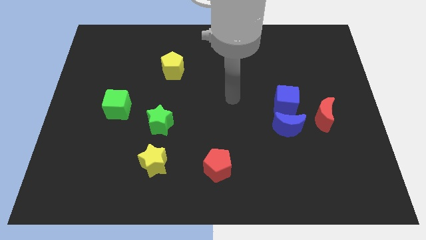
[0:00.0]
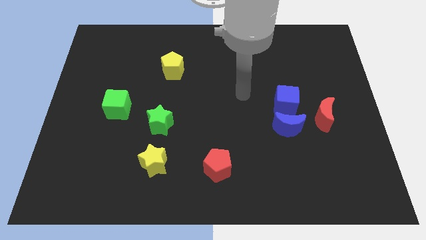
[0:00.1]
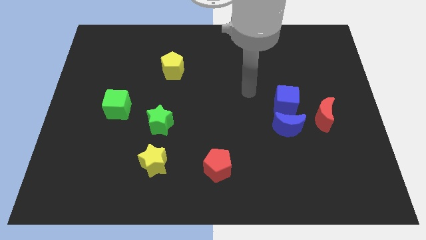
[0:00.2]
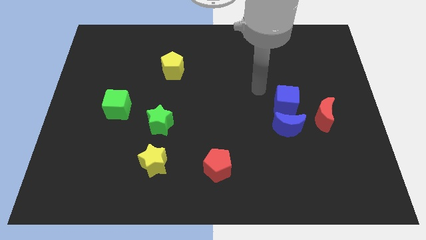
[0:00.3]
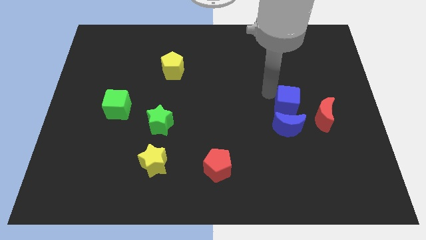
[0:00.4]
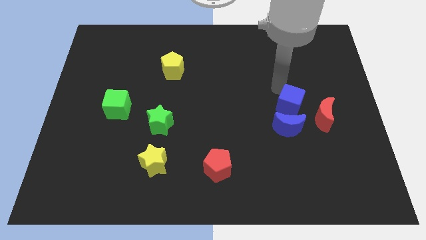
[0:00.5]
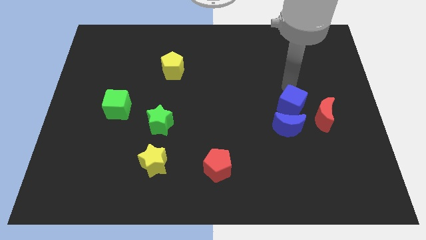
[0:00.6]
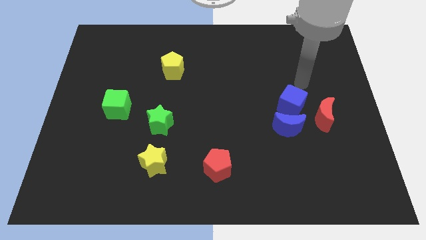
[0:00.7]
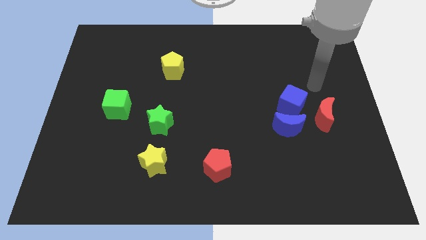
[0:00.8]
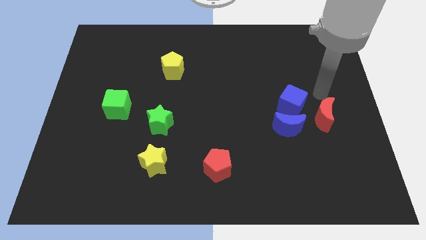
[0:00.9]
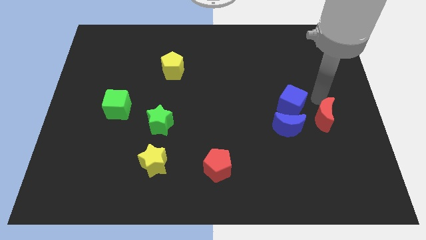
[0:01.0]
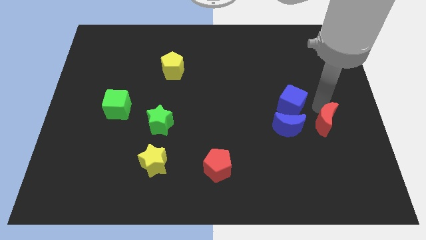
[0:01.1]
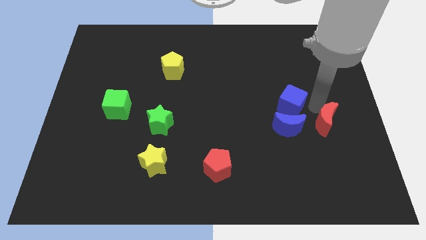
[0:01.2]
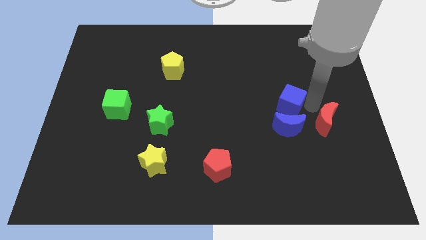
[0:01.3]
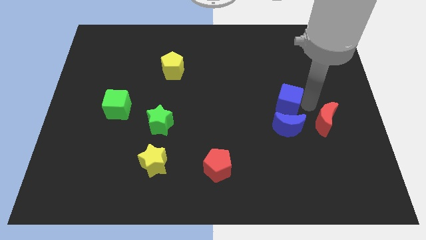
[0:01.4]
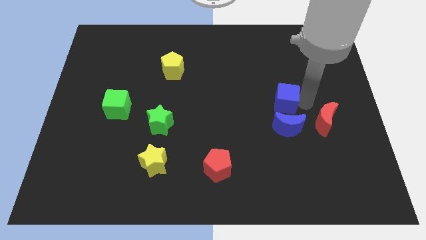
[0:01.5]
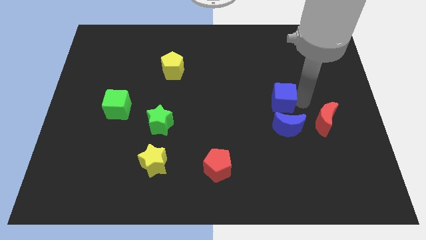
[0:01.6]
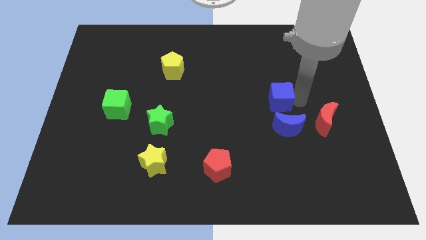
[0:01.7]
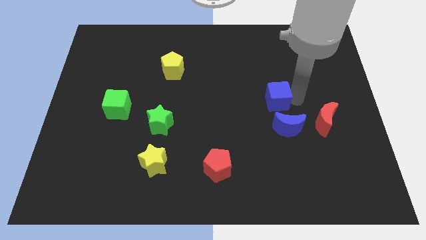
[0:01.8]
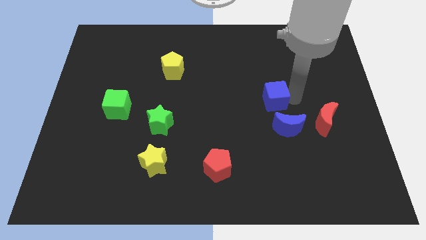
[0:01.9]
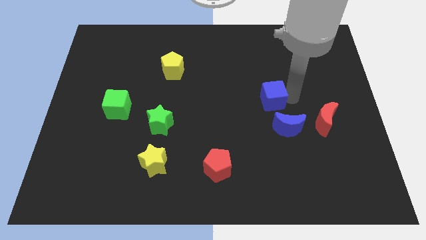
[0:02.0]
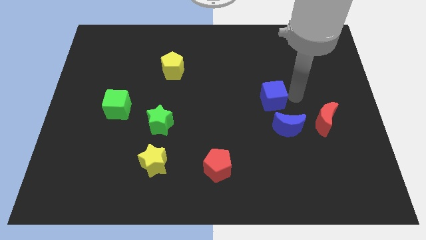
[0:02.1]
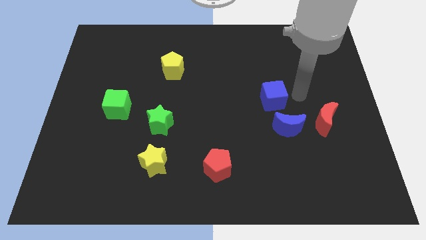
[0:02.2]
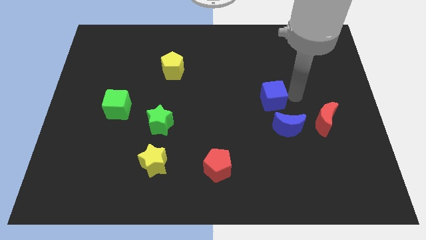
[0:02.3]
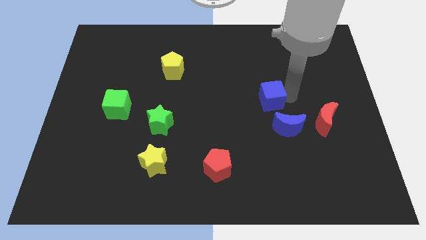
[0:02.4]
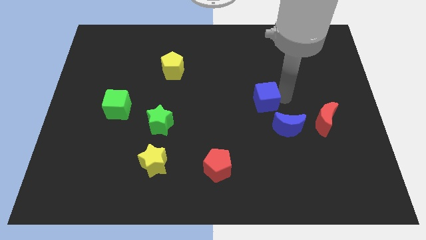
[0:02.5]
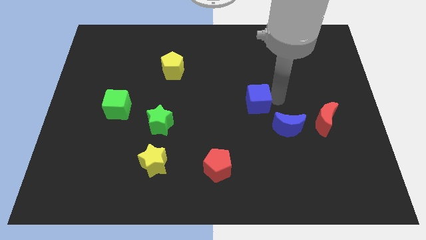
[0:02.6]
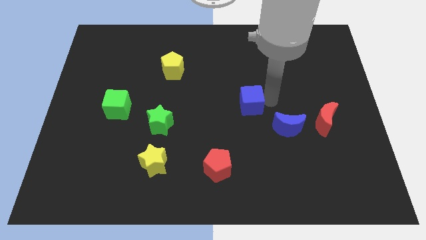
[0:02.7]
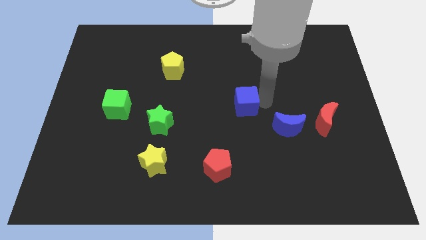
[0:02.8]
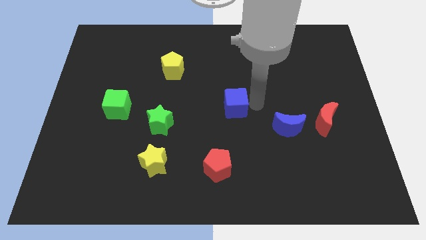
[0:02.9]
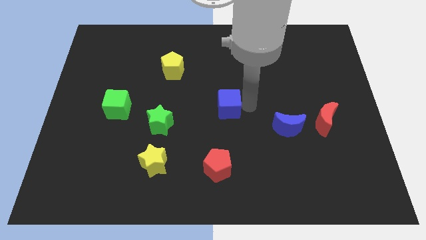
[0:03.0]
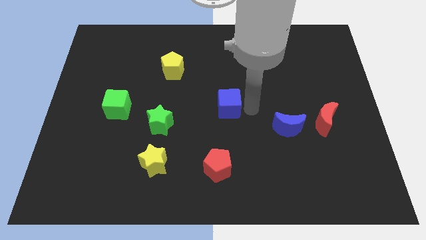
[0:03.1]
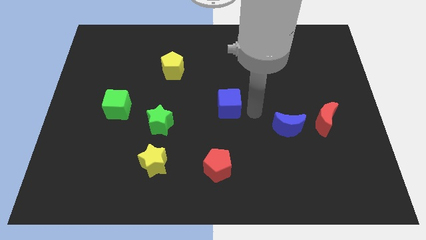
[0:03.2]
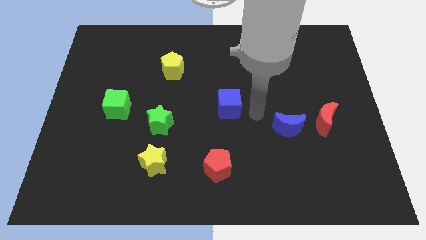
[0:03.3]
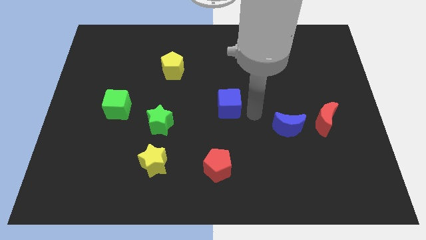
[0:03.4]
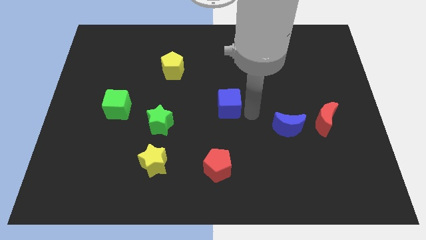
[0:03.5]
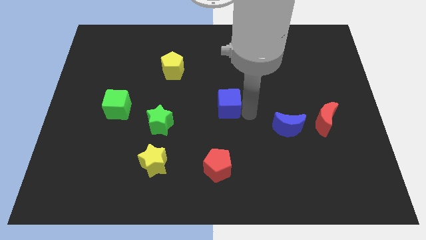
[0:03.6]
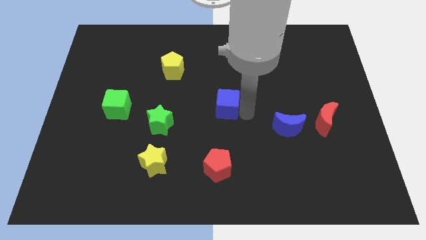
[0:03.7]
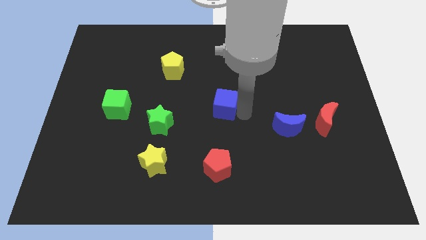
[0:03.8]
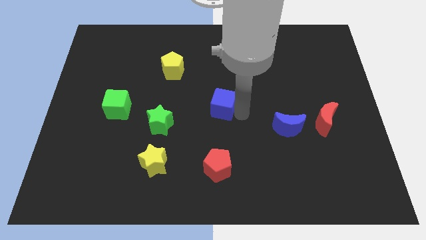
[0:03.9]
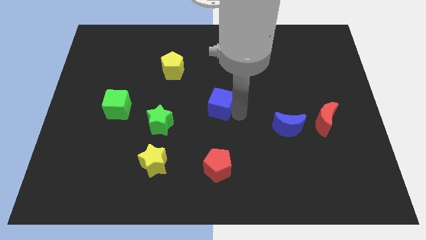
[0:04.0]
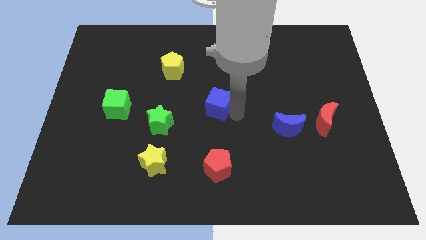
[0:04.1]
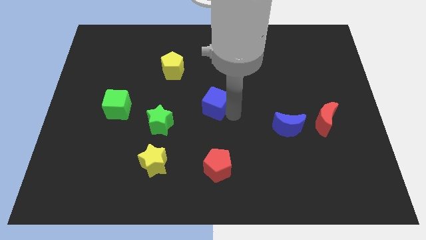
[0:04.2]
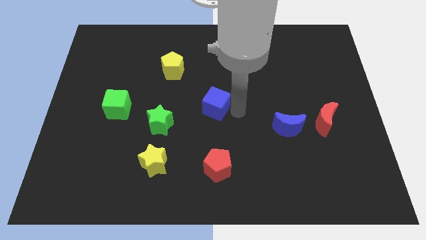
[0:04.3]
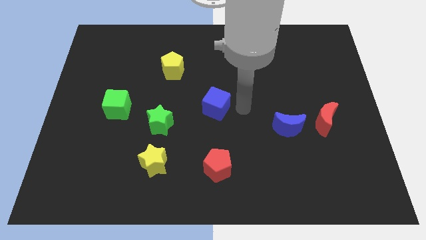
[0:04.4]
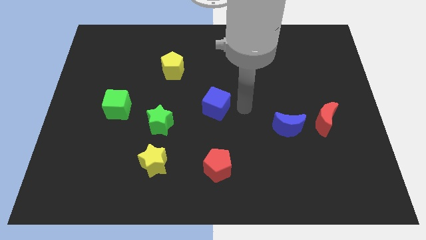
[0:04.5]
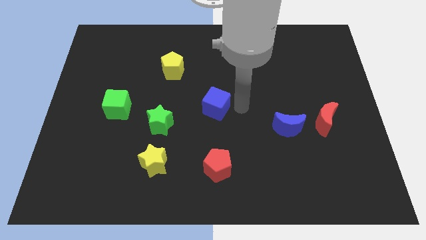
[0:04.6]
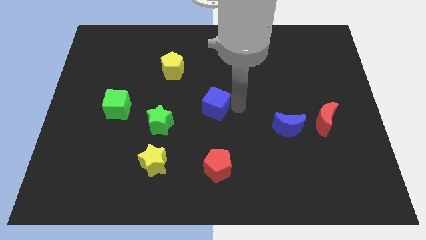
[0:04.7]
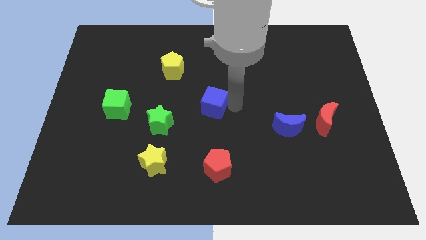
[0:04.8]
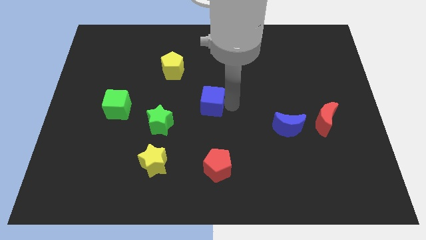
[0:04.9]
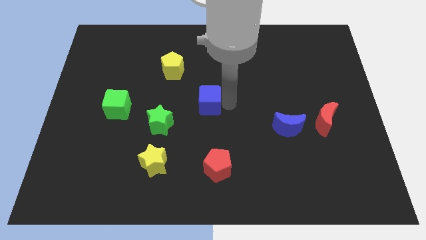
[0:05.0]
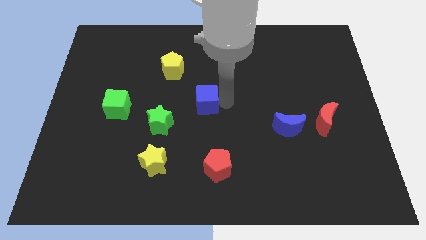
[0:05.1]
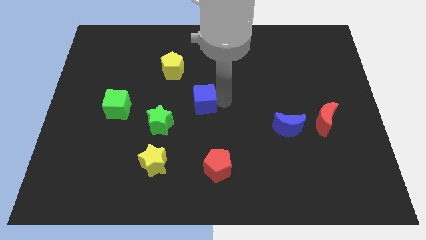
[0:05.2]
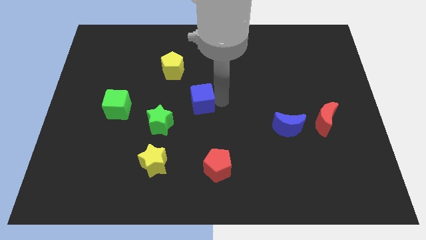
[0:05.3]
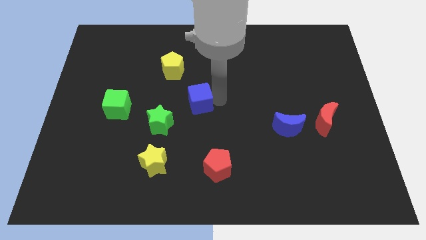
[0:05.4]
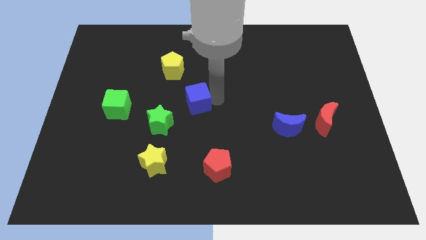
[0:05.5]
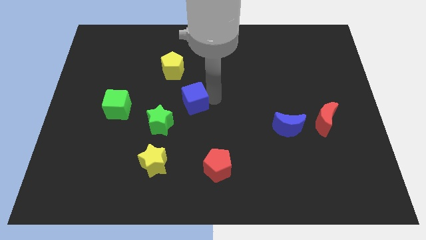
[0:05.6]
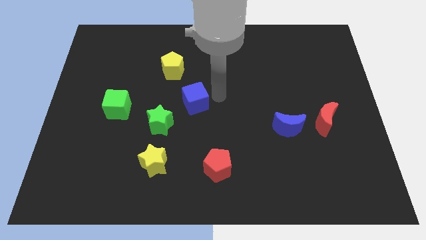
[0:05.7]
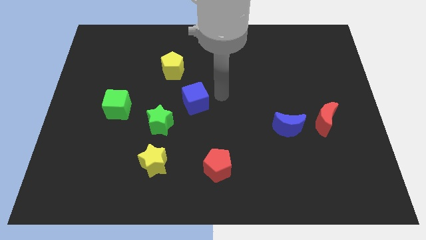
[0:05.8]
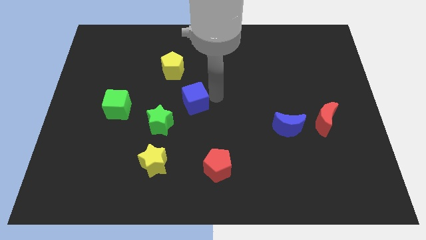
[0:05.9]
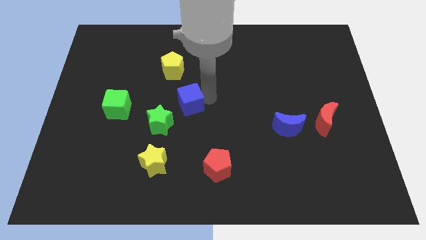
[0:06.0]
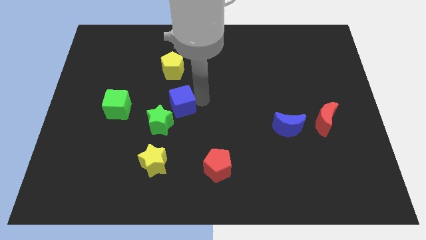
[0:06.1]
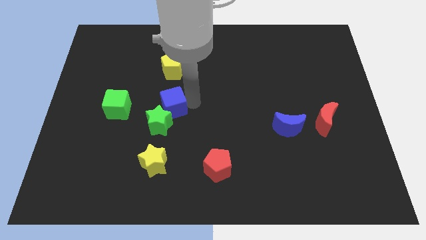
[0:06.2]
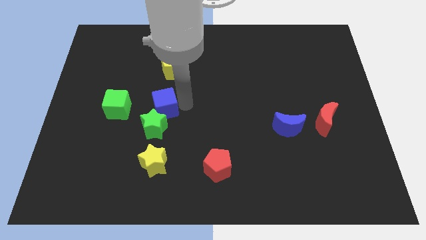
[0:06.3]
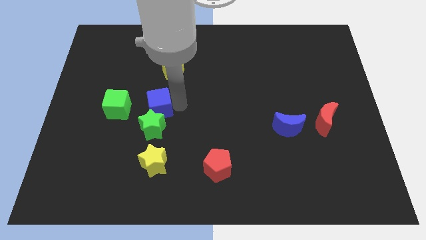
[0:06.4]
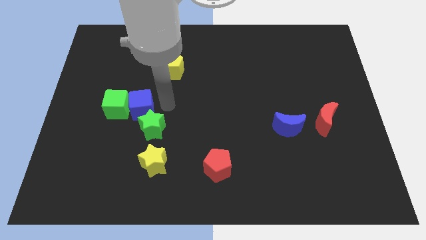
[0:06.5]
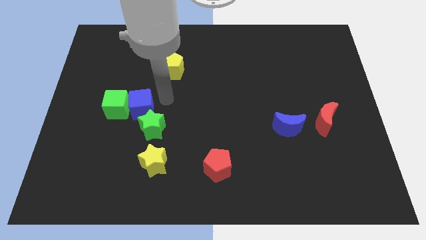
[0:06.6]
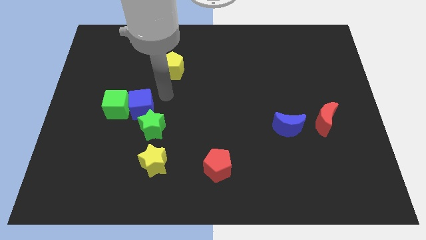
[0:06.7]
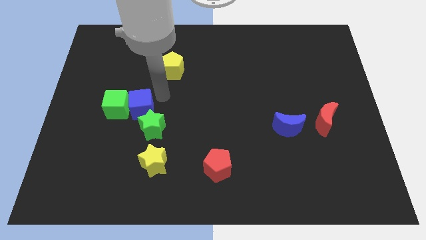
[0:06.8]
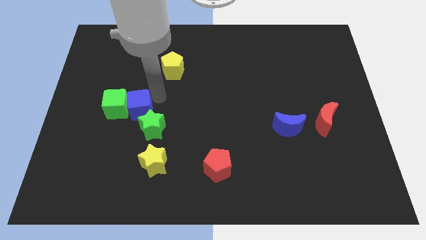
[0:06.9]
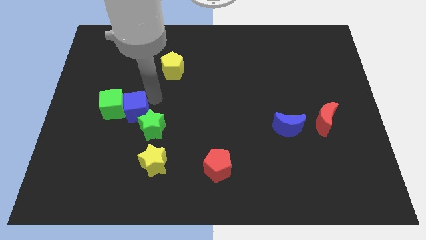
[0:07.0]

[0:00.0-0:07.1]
push the blue cube left of the green star
